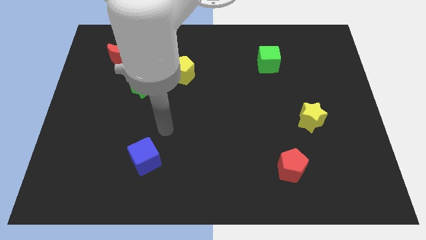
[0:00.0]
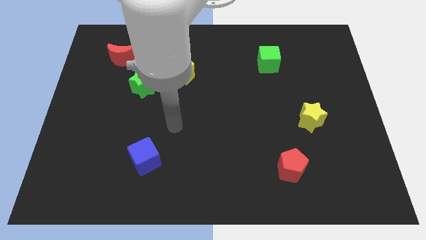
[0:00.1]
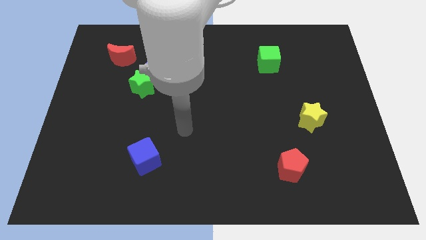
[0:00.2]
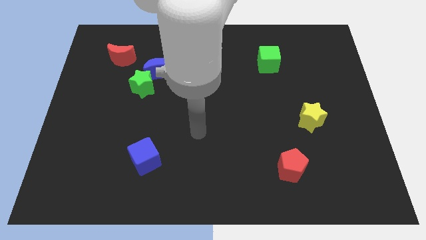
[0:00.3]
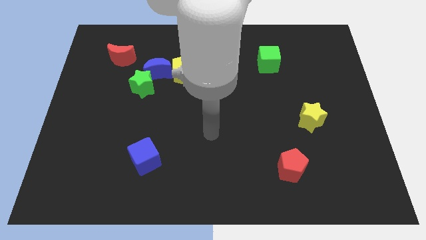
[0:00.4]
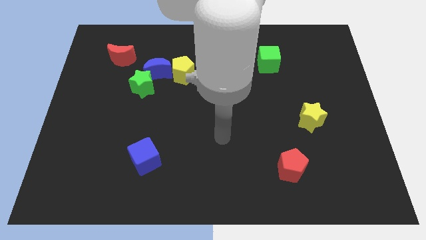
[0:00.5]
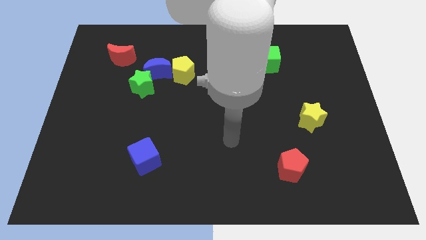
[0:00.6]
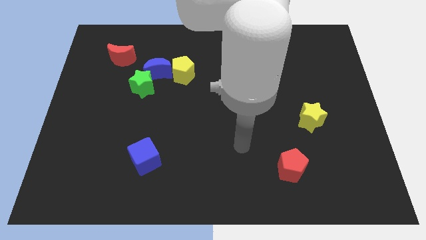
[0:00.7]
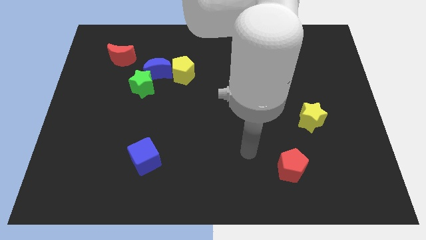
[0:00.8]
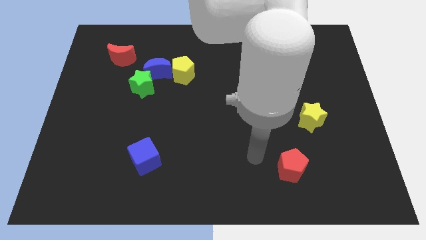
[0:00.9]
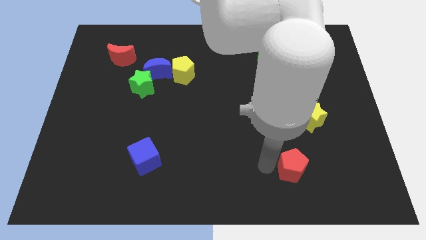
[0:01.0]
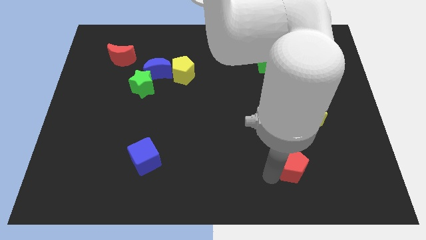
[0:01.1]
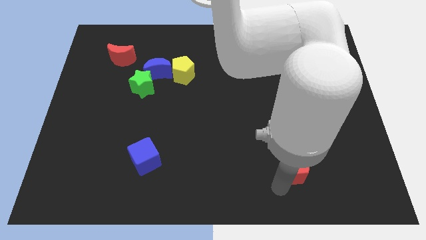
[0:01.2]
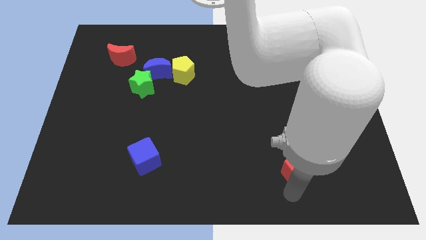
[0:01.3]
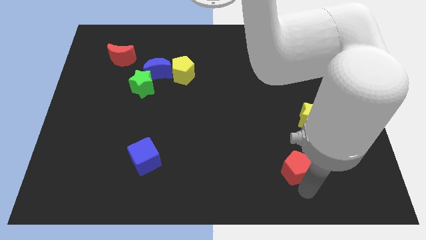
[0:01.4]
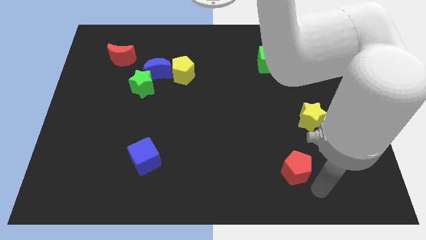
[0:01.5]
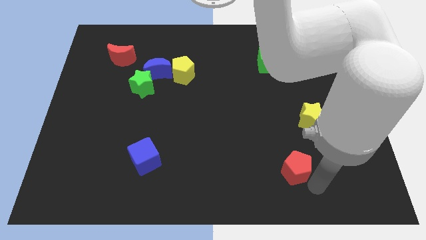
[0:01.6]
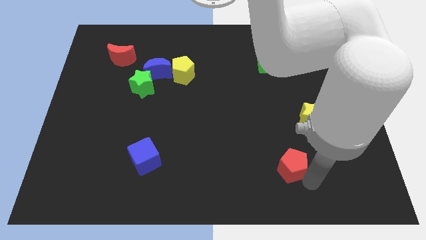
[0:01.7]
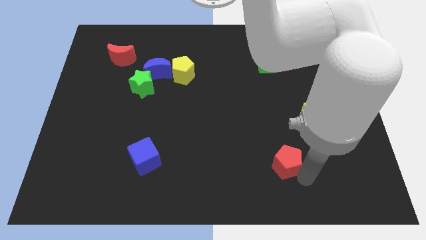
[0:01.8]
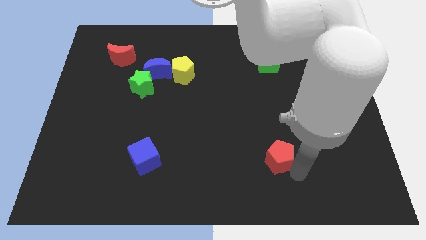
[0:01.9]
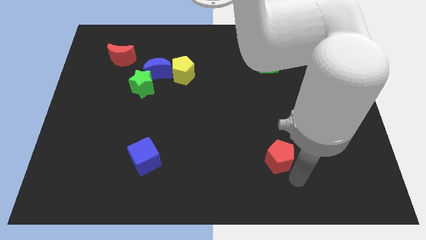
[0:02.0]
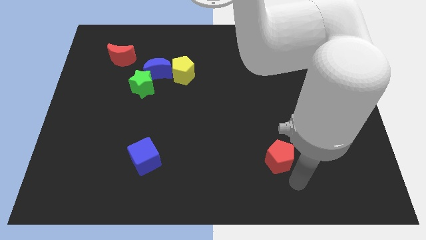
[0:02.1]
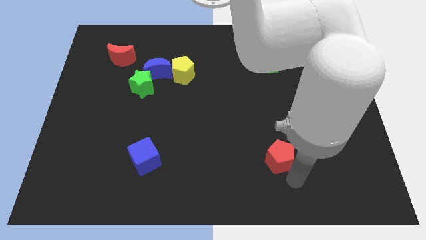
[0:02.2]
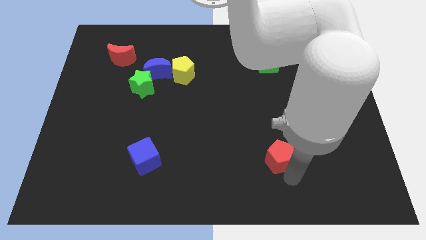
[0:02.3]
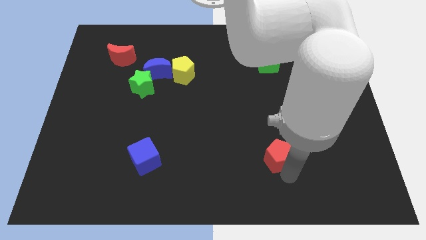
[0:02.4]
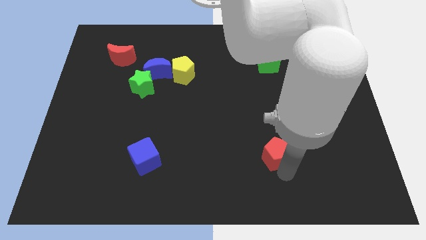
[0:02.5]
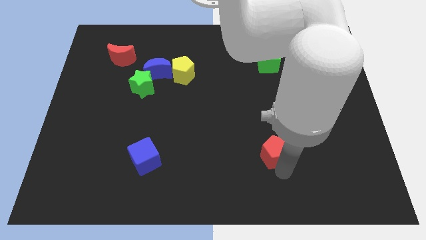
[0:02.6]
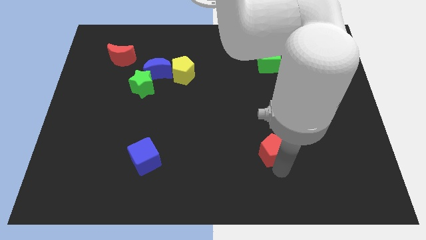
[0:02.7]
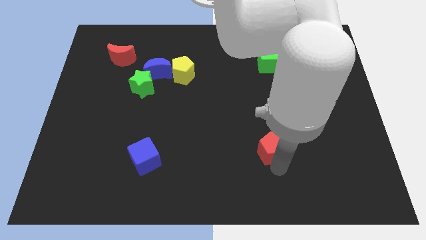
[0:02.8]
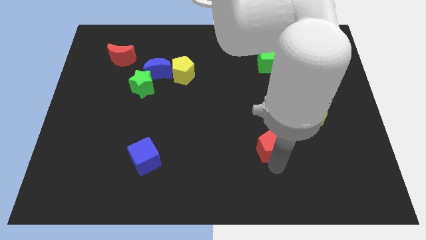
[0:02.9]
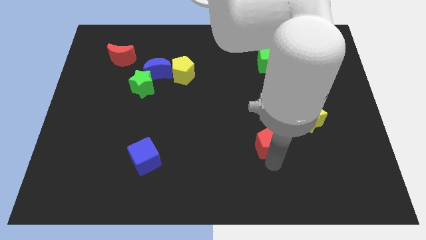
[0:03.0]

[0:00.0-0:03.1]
slightly slide the red pentagon upwards and left diagonally

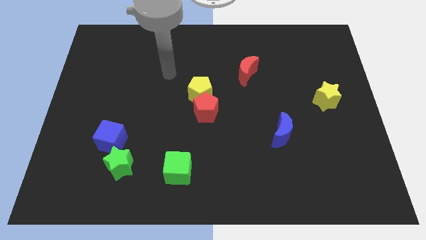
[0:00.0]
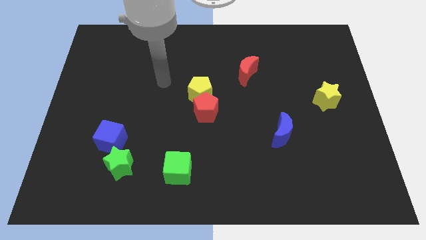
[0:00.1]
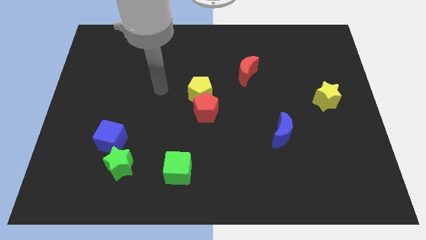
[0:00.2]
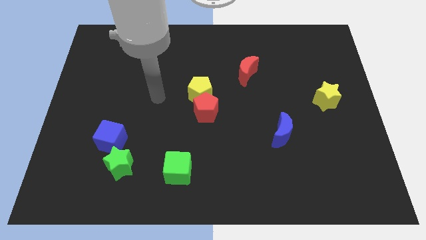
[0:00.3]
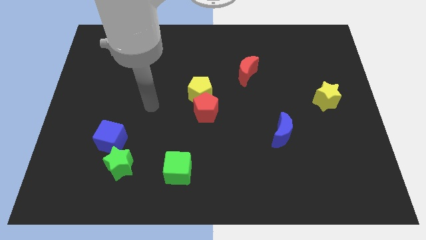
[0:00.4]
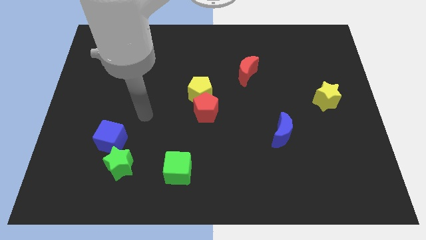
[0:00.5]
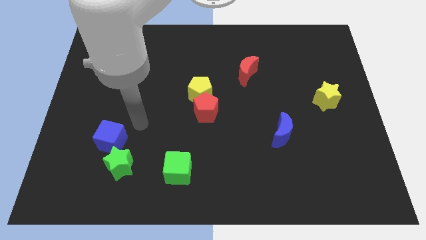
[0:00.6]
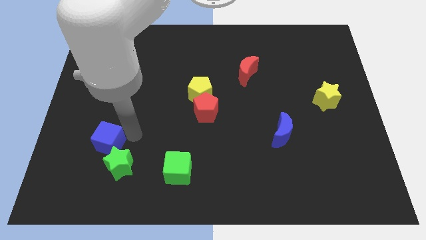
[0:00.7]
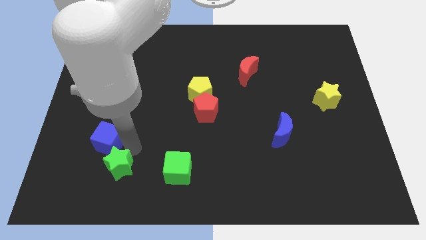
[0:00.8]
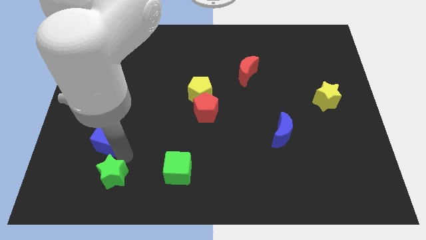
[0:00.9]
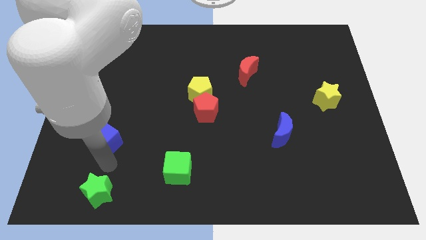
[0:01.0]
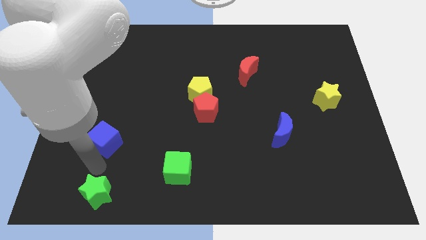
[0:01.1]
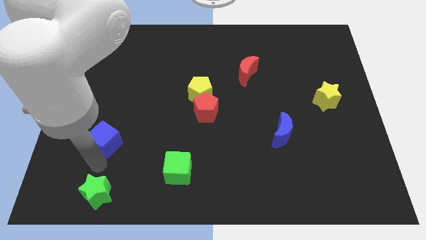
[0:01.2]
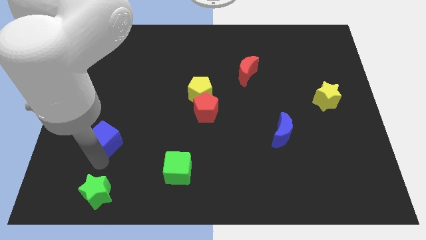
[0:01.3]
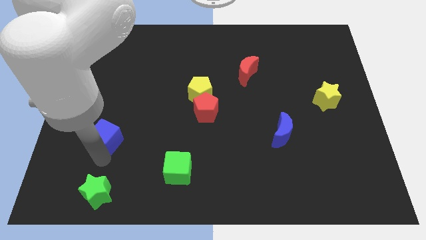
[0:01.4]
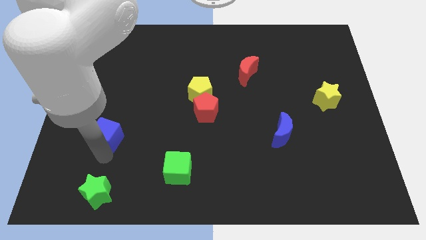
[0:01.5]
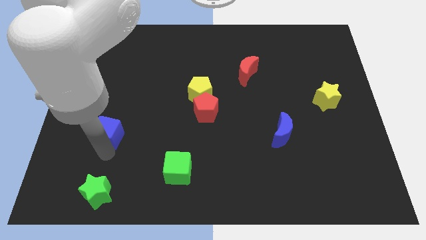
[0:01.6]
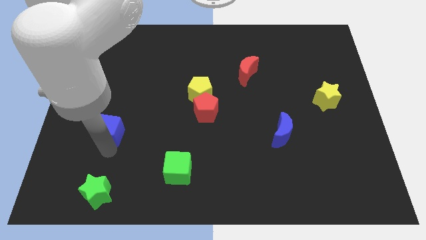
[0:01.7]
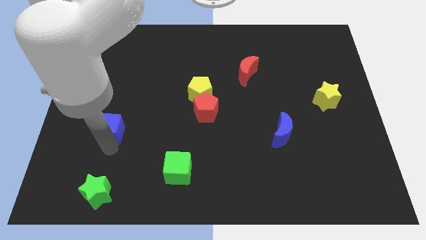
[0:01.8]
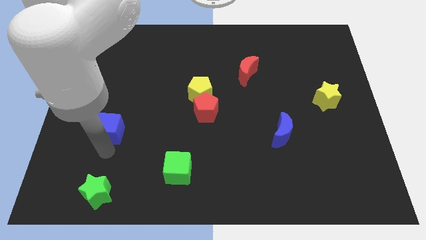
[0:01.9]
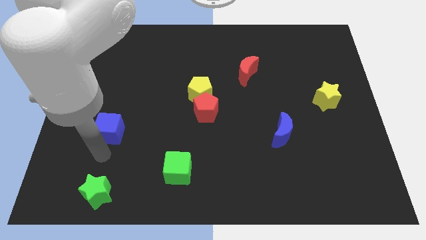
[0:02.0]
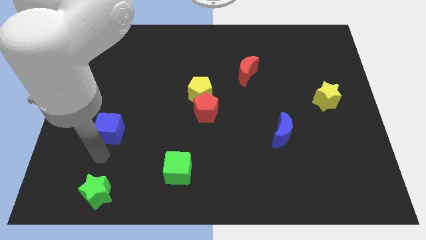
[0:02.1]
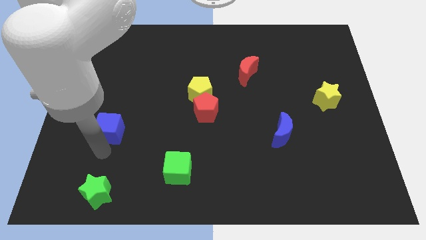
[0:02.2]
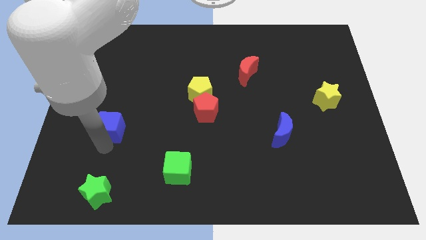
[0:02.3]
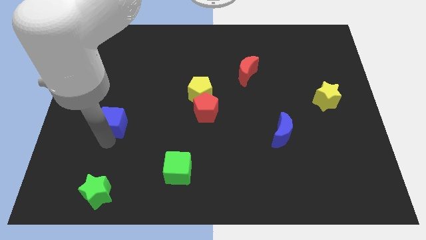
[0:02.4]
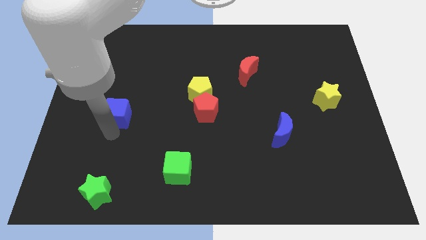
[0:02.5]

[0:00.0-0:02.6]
slide the blue cube a little upwards

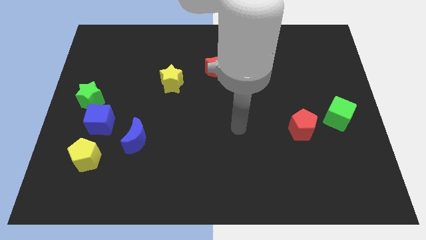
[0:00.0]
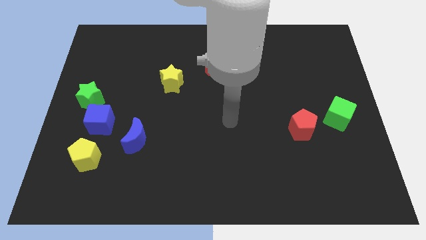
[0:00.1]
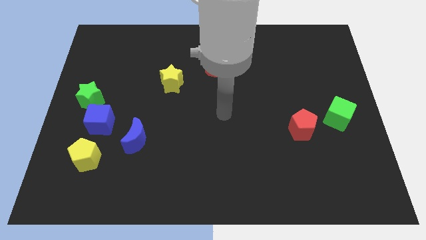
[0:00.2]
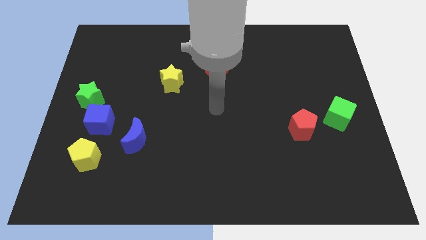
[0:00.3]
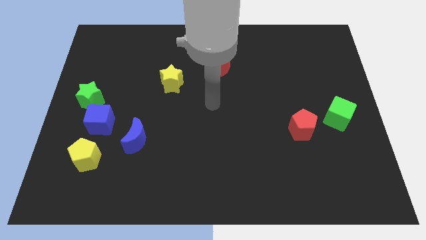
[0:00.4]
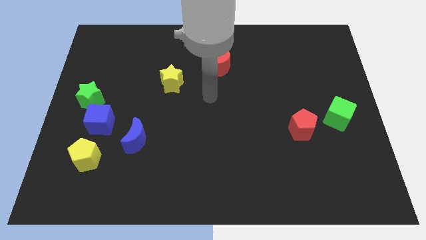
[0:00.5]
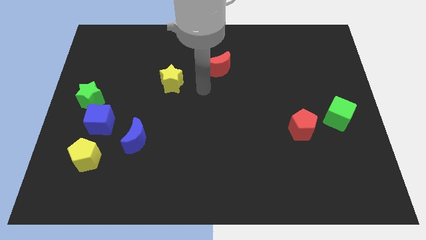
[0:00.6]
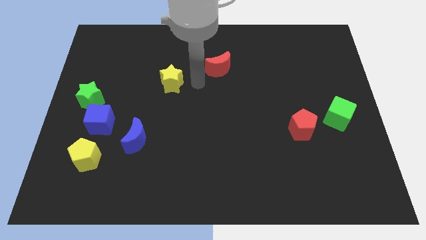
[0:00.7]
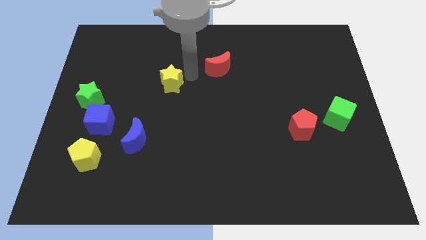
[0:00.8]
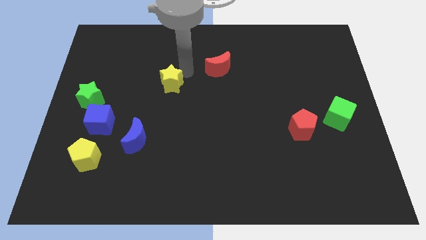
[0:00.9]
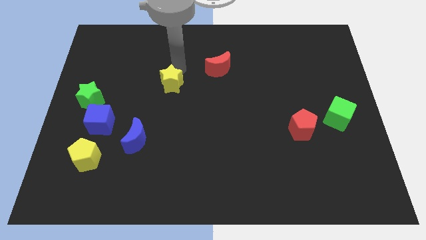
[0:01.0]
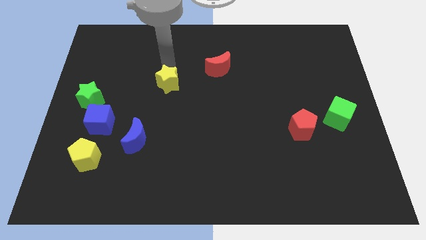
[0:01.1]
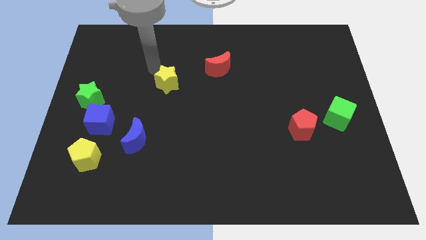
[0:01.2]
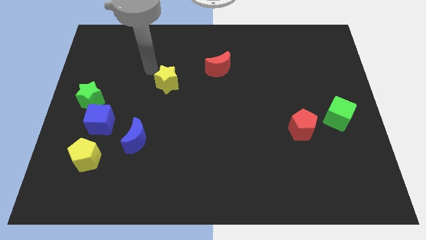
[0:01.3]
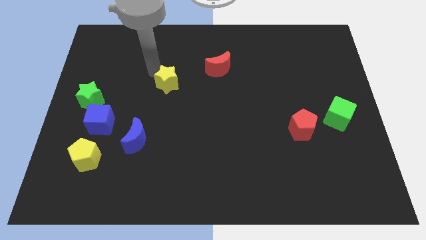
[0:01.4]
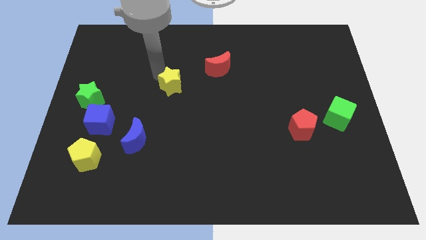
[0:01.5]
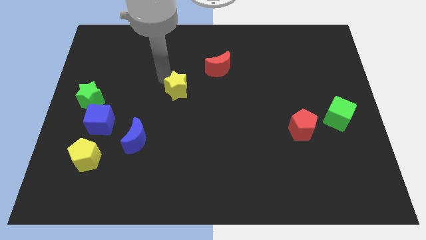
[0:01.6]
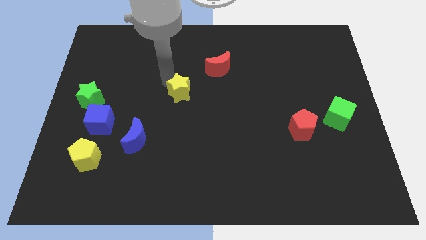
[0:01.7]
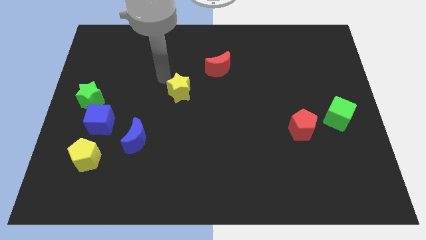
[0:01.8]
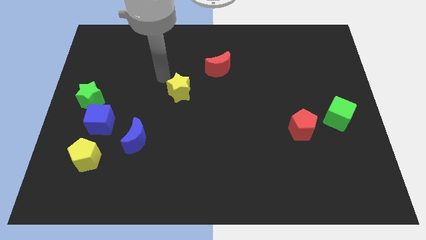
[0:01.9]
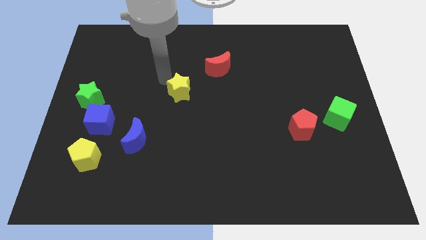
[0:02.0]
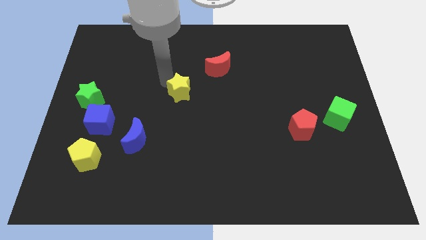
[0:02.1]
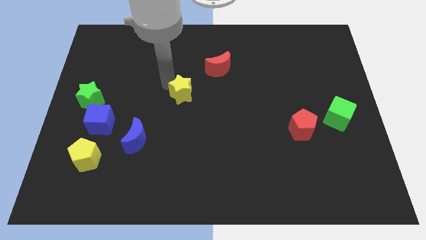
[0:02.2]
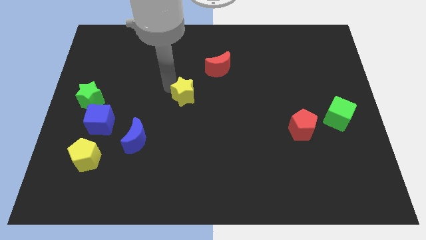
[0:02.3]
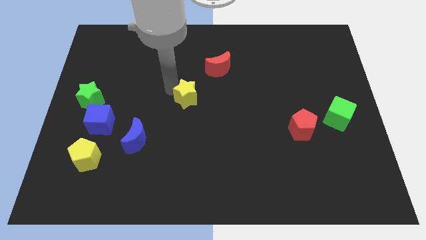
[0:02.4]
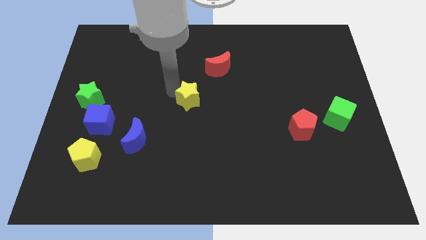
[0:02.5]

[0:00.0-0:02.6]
slide the yellow star diagonally downwards and right a bit

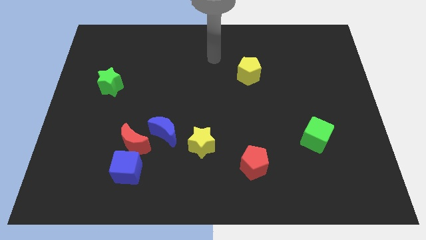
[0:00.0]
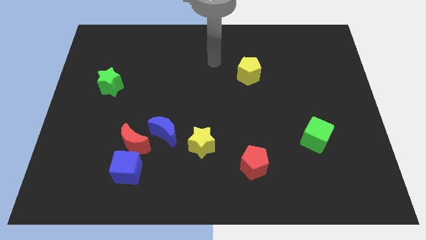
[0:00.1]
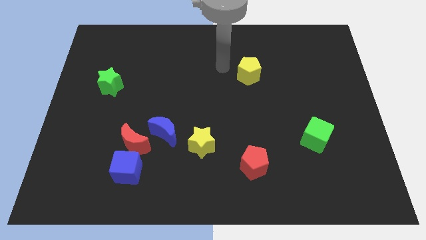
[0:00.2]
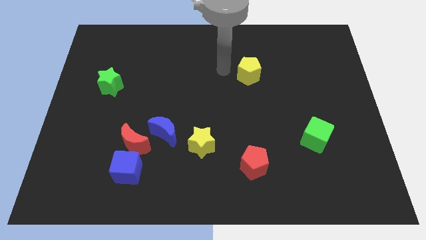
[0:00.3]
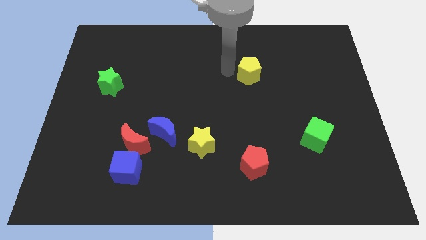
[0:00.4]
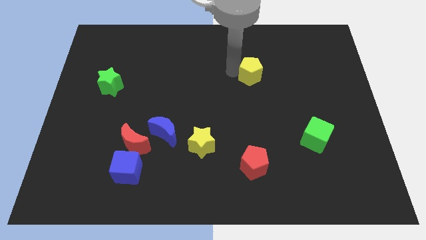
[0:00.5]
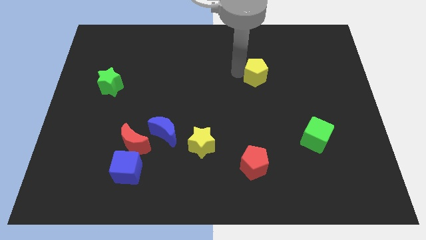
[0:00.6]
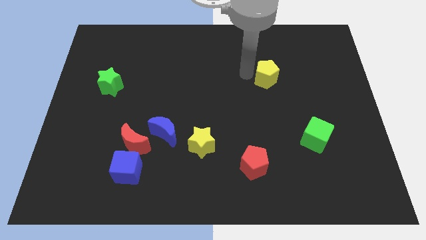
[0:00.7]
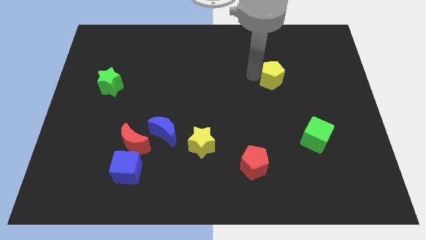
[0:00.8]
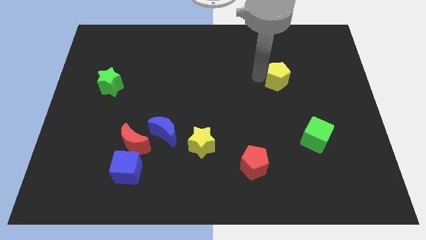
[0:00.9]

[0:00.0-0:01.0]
move the yellow pentagon right a little
